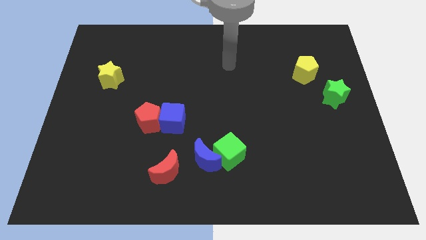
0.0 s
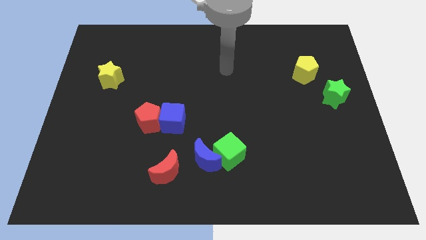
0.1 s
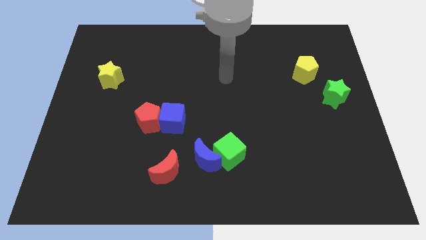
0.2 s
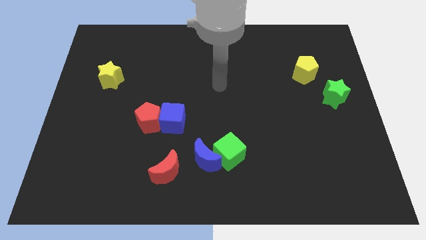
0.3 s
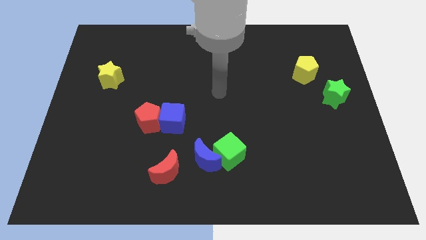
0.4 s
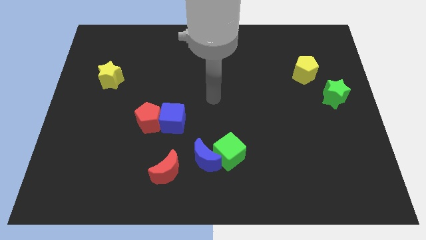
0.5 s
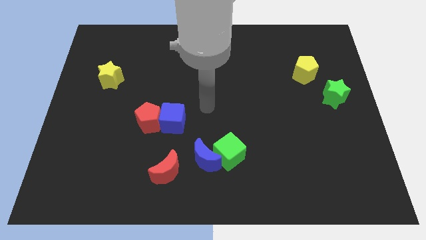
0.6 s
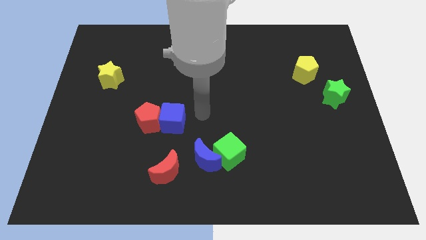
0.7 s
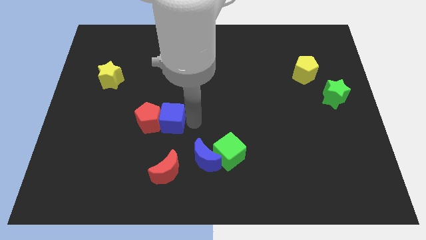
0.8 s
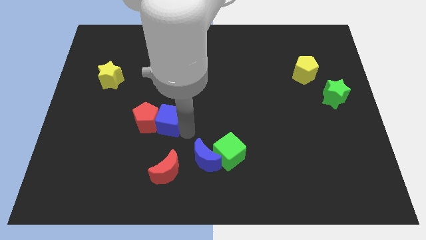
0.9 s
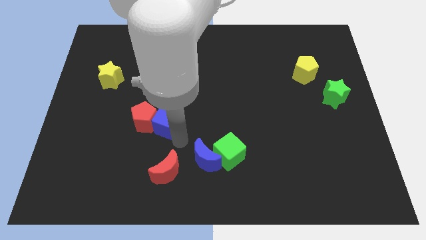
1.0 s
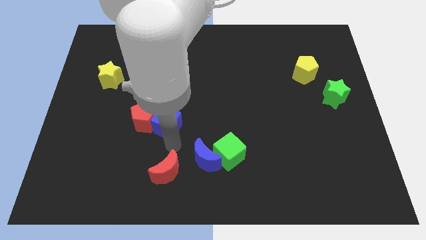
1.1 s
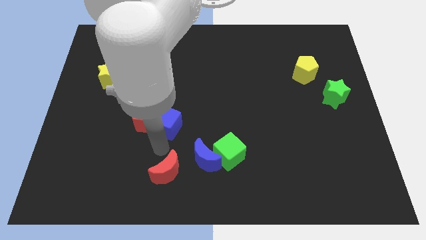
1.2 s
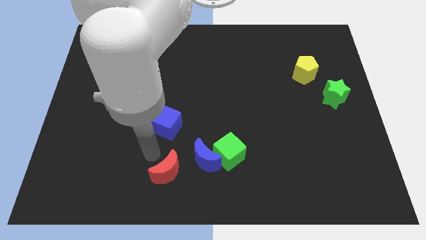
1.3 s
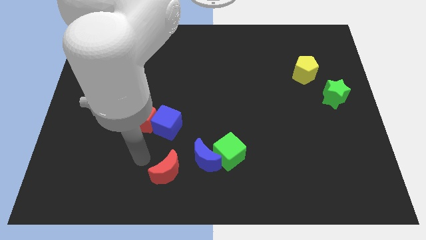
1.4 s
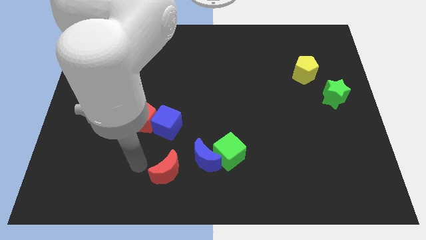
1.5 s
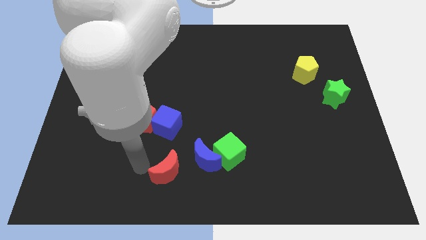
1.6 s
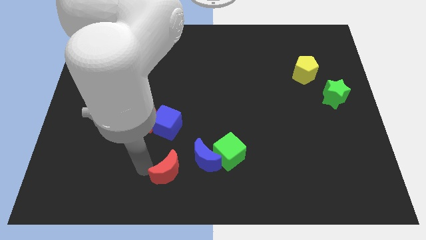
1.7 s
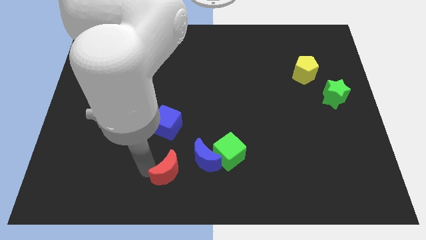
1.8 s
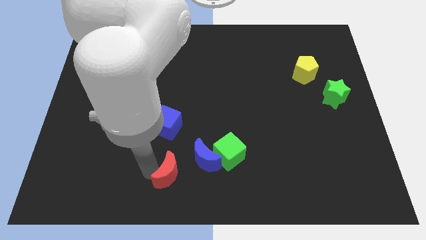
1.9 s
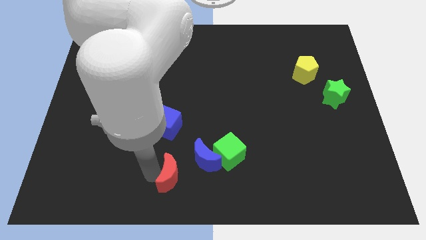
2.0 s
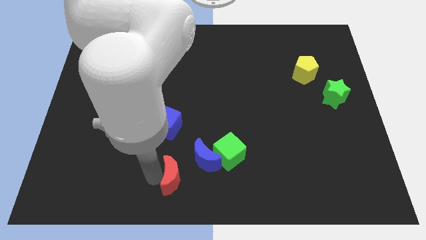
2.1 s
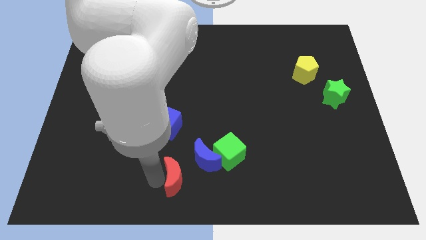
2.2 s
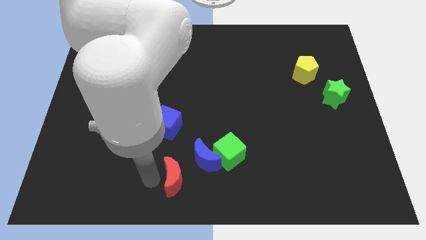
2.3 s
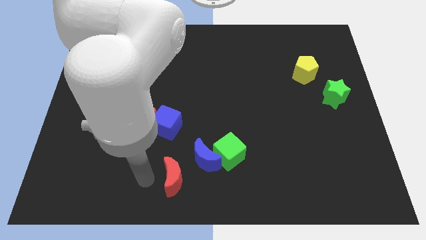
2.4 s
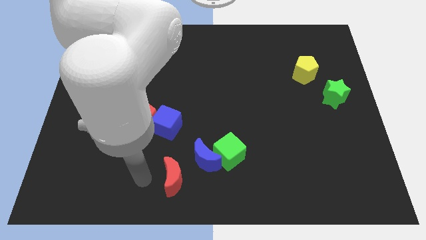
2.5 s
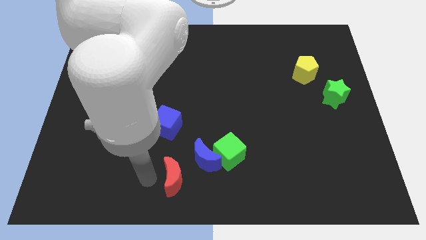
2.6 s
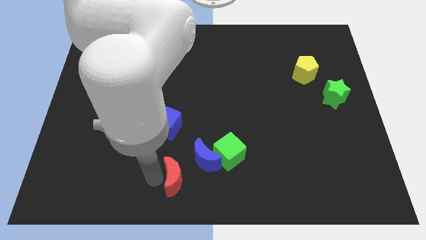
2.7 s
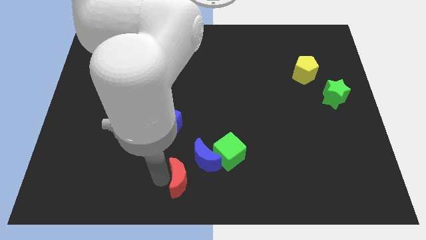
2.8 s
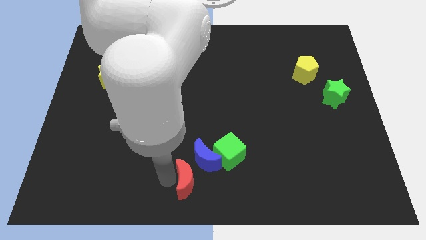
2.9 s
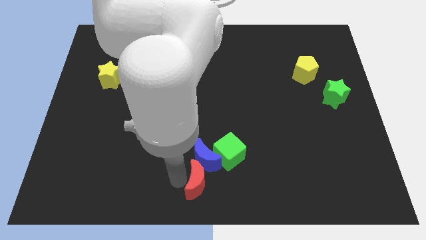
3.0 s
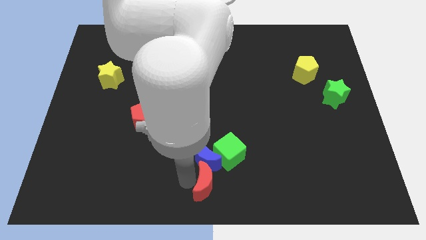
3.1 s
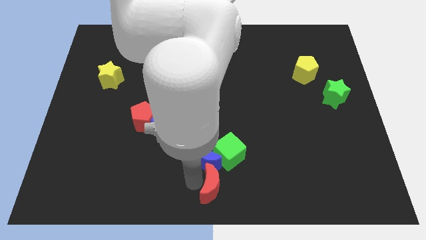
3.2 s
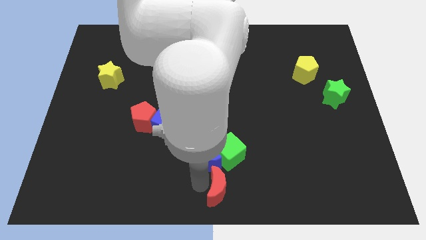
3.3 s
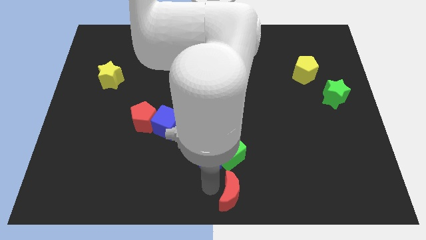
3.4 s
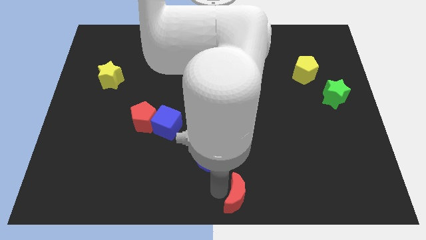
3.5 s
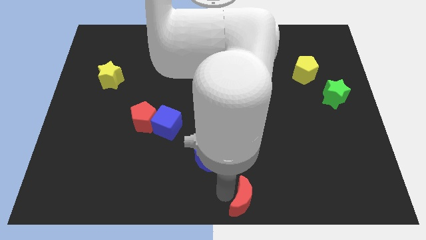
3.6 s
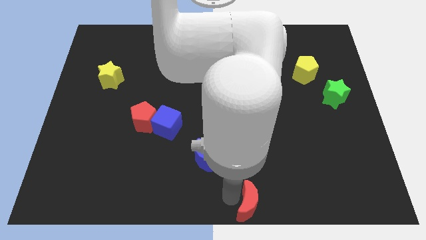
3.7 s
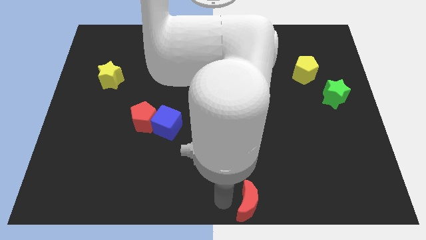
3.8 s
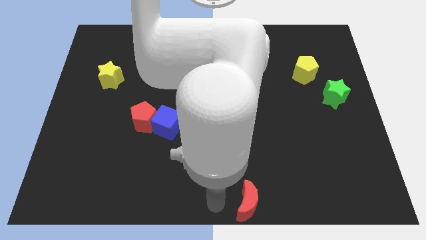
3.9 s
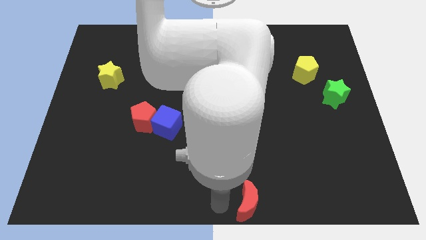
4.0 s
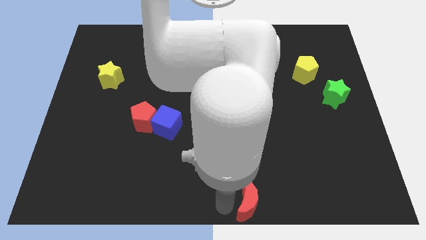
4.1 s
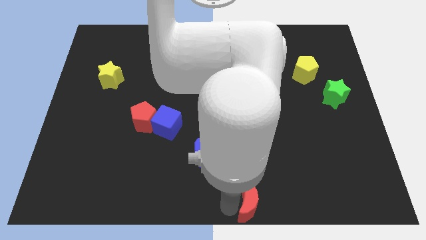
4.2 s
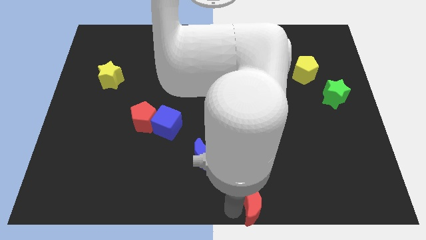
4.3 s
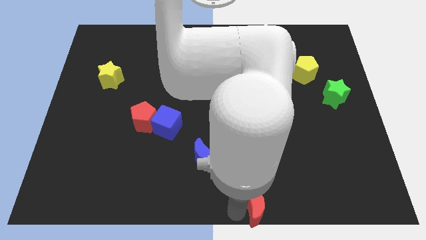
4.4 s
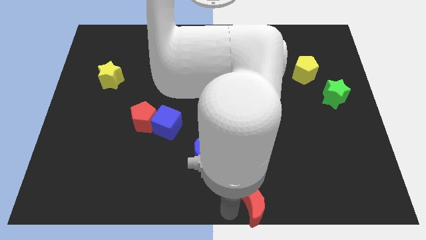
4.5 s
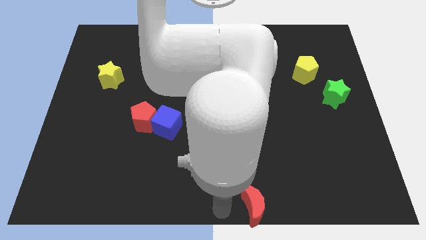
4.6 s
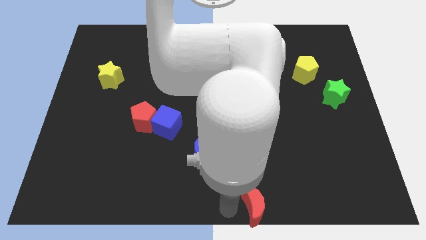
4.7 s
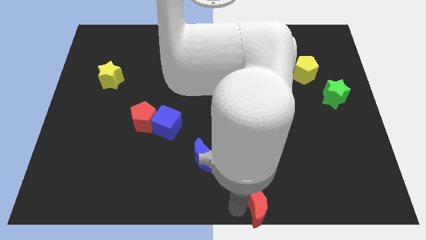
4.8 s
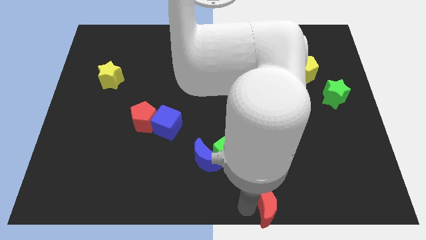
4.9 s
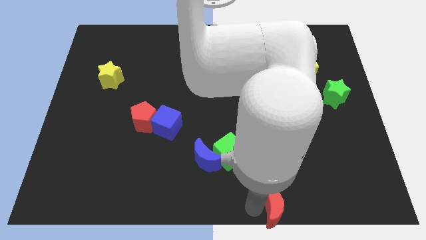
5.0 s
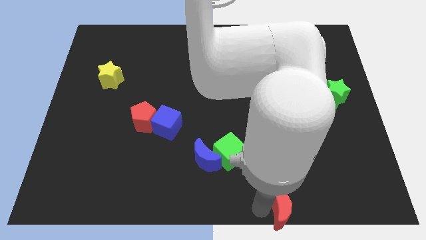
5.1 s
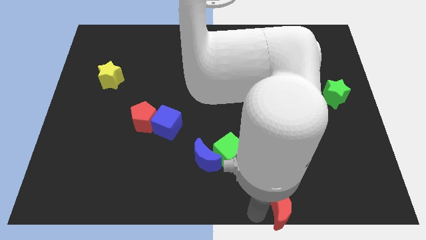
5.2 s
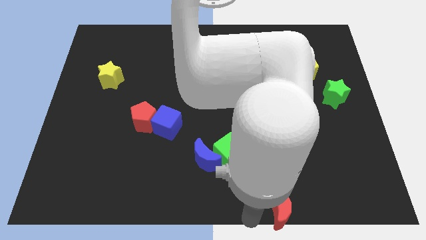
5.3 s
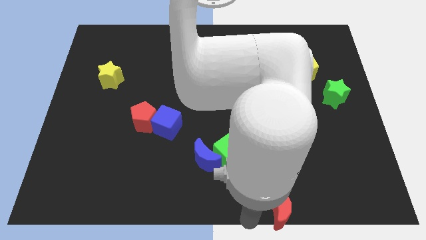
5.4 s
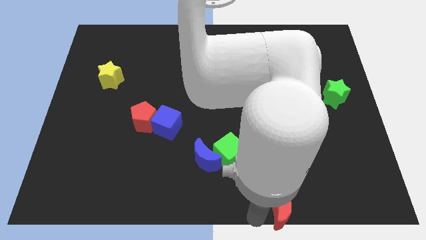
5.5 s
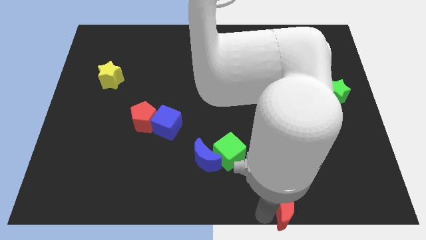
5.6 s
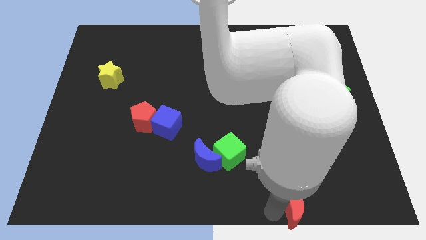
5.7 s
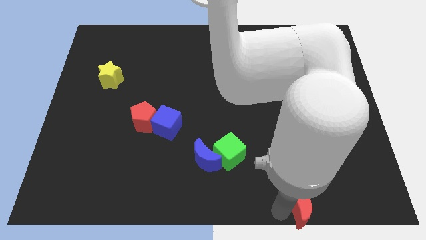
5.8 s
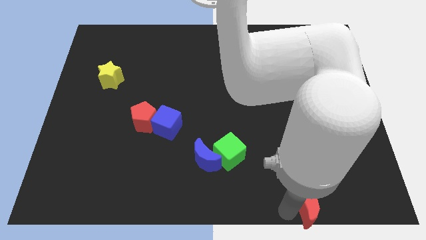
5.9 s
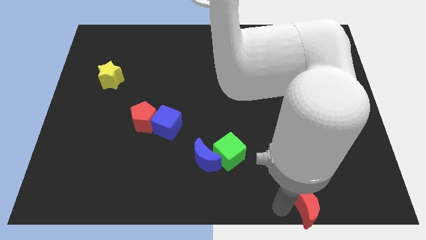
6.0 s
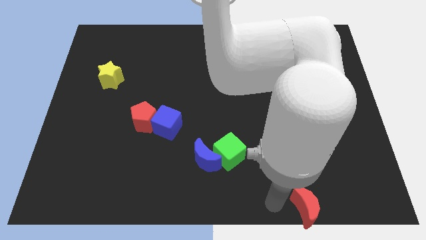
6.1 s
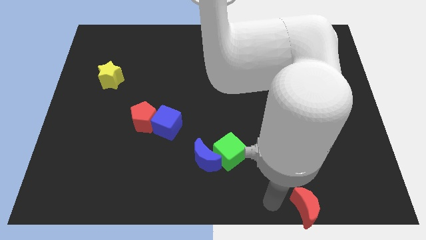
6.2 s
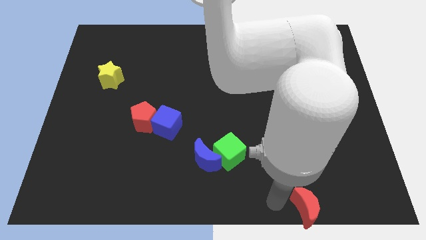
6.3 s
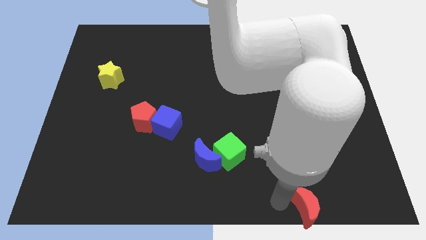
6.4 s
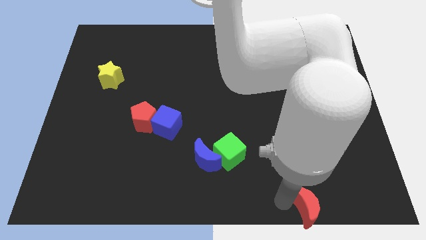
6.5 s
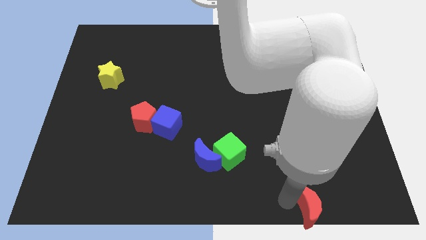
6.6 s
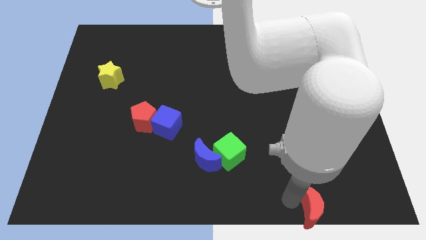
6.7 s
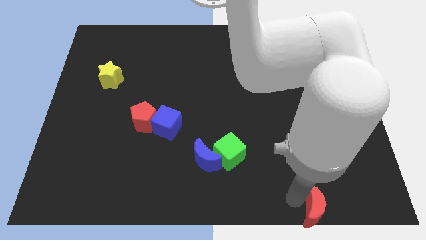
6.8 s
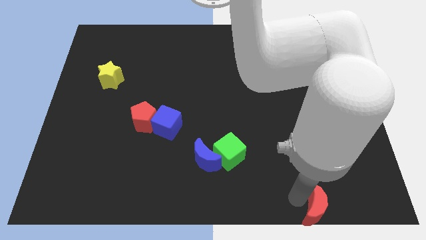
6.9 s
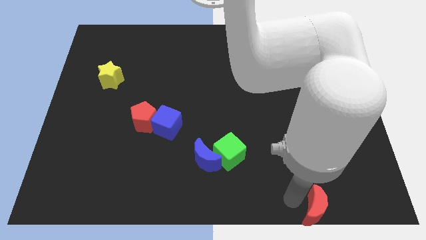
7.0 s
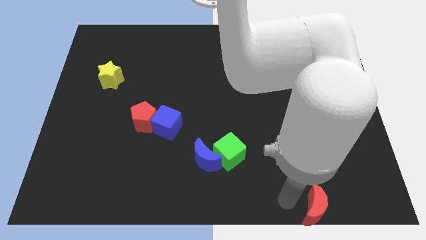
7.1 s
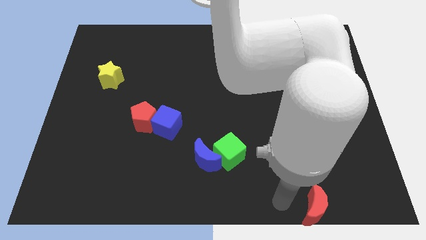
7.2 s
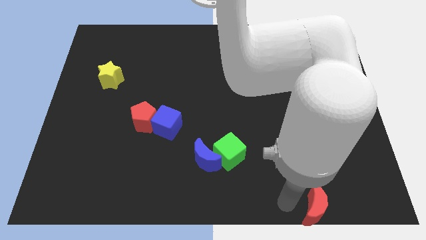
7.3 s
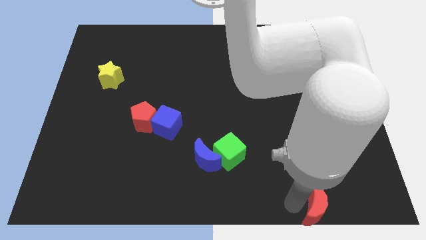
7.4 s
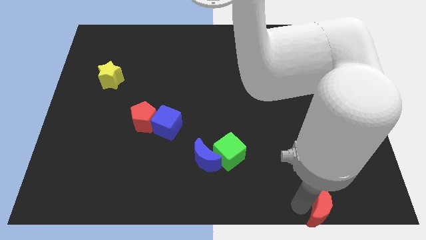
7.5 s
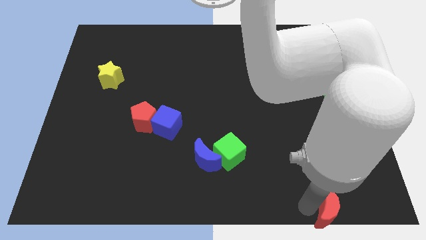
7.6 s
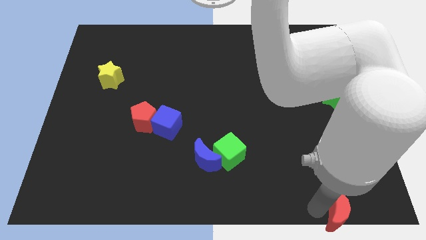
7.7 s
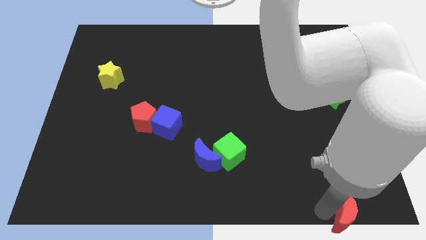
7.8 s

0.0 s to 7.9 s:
slide the red moon to the bottom right of the board
